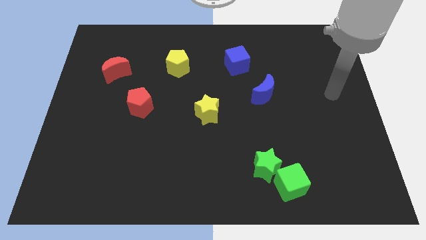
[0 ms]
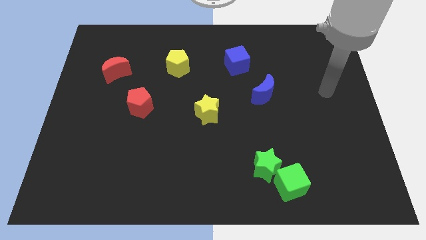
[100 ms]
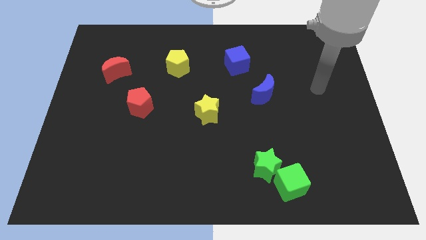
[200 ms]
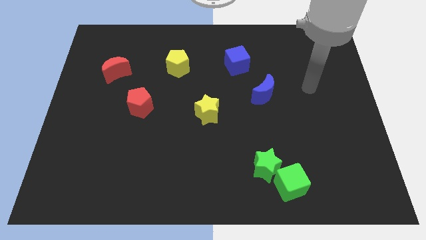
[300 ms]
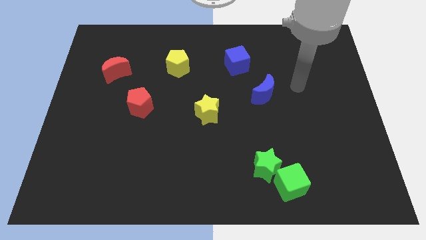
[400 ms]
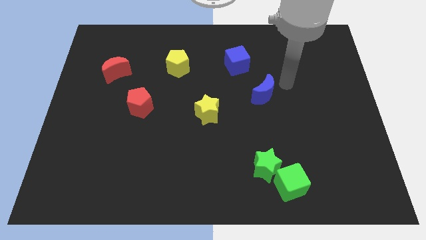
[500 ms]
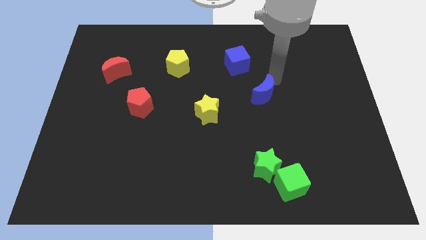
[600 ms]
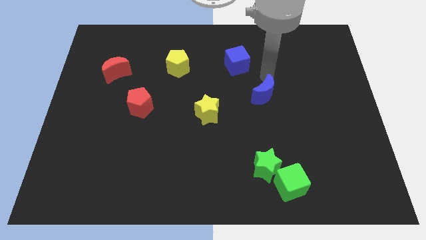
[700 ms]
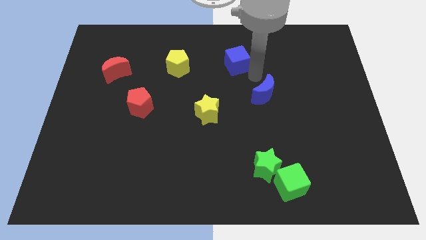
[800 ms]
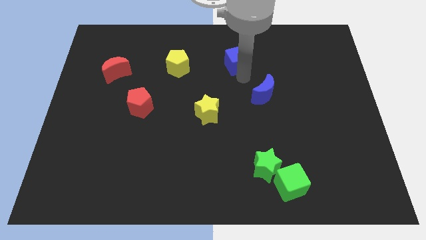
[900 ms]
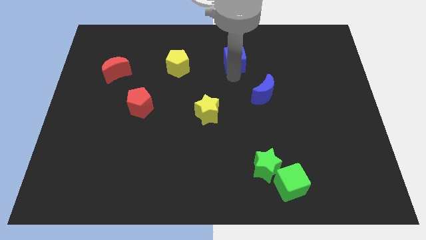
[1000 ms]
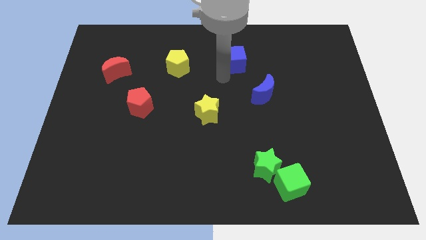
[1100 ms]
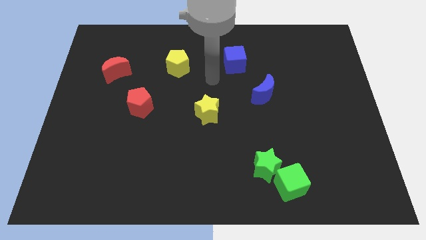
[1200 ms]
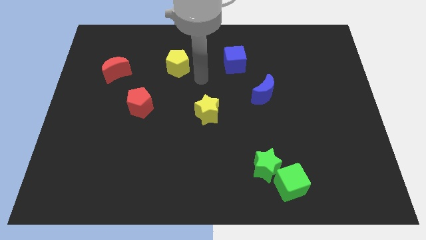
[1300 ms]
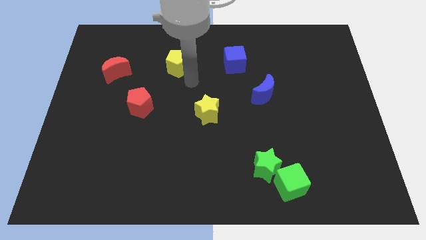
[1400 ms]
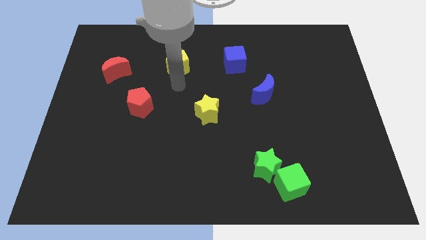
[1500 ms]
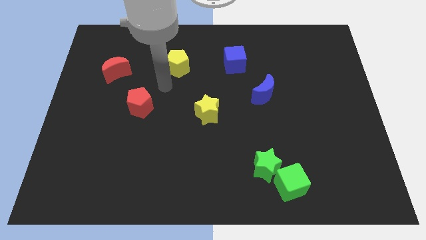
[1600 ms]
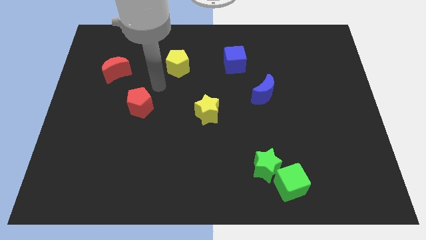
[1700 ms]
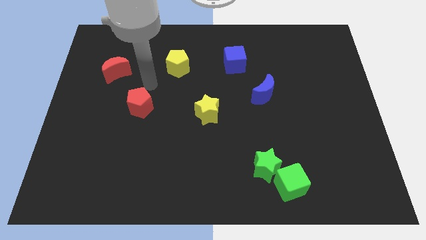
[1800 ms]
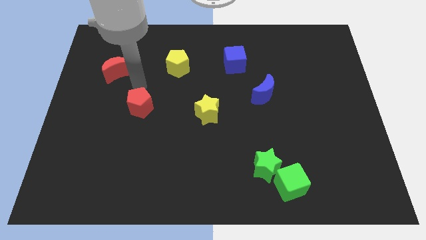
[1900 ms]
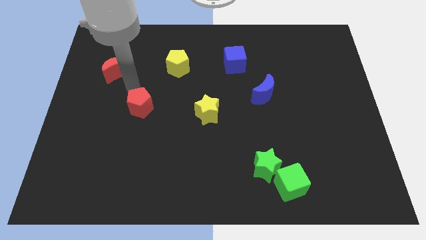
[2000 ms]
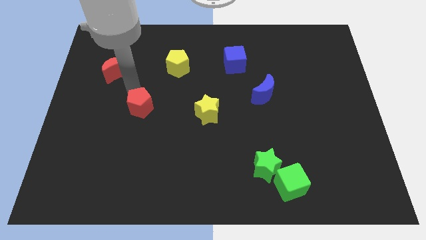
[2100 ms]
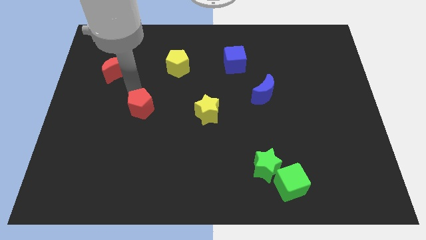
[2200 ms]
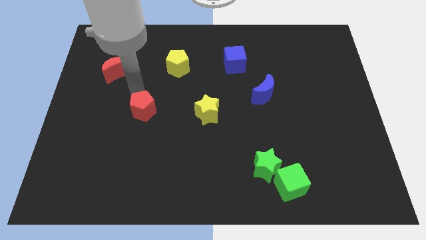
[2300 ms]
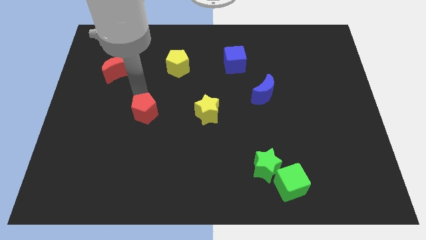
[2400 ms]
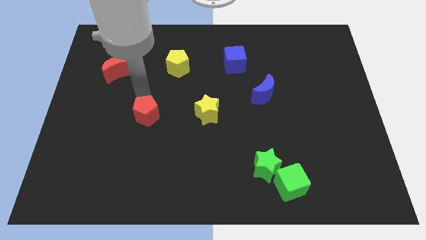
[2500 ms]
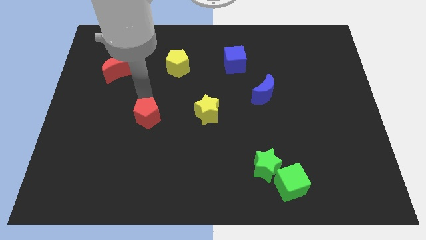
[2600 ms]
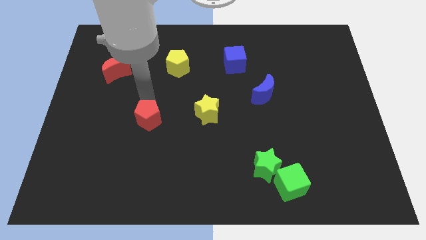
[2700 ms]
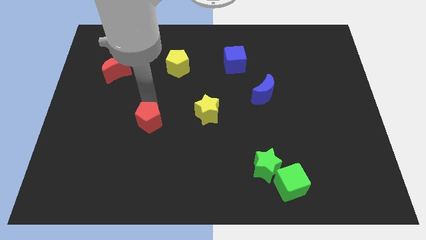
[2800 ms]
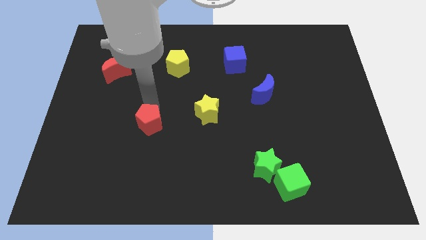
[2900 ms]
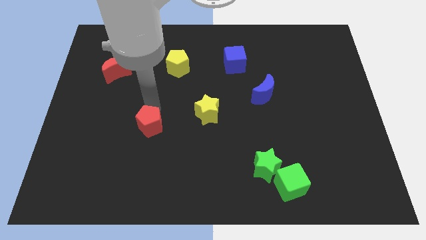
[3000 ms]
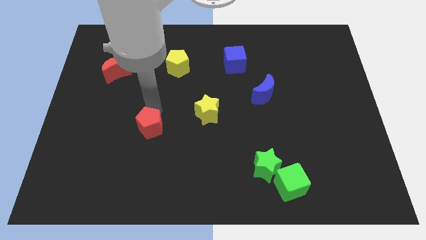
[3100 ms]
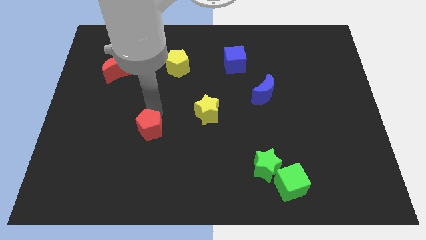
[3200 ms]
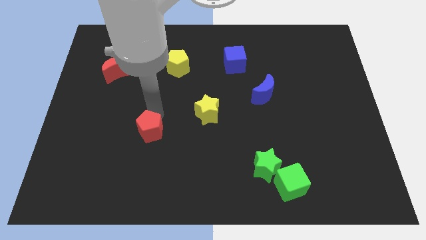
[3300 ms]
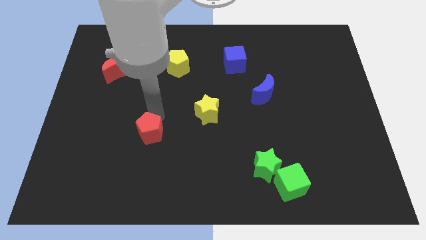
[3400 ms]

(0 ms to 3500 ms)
slide the red pentagon a bit downwards

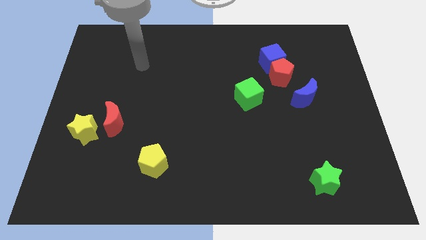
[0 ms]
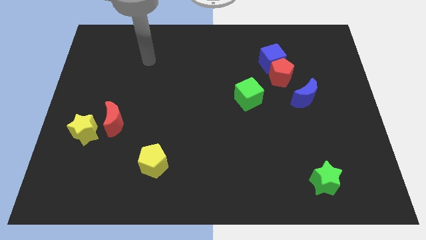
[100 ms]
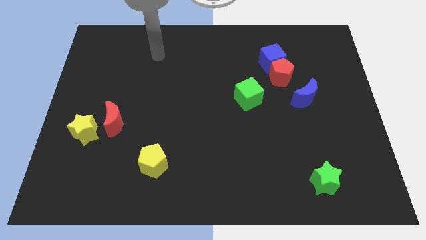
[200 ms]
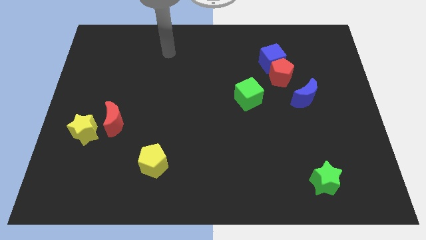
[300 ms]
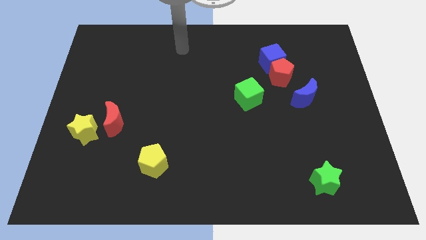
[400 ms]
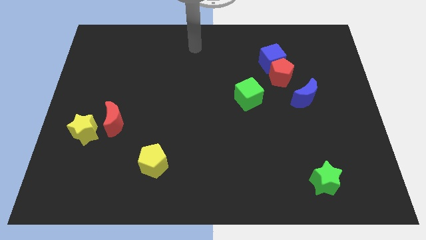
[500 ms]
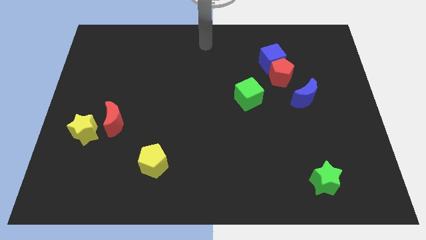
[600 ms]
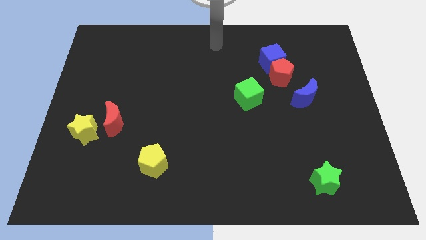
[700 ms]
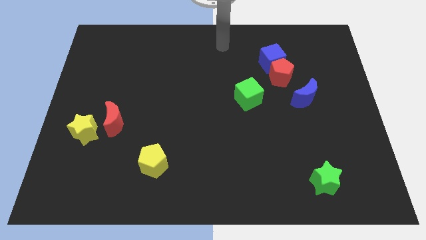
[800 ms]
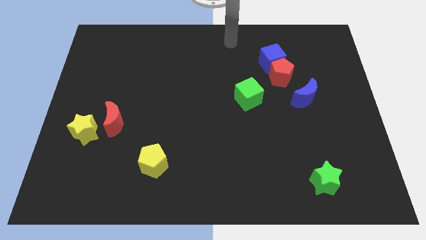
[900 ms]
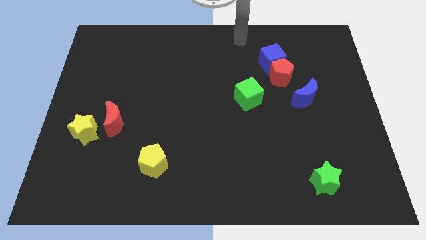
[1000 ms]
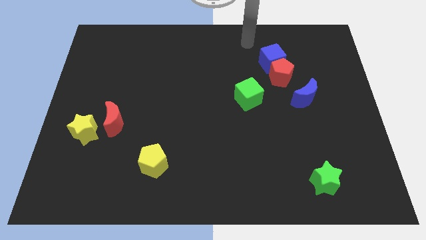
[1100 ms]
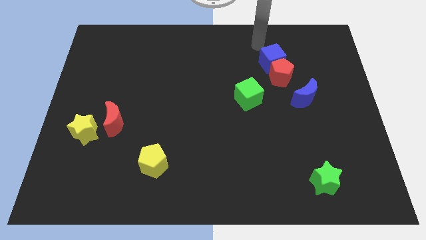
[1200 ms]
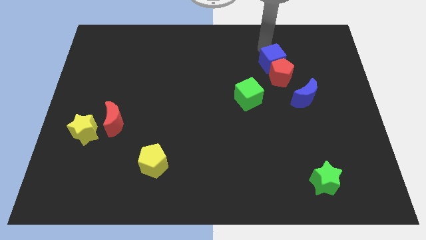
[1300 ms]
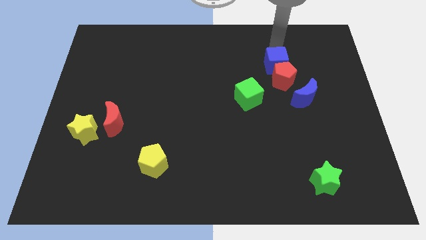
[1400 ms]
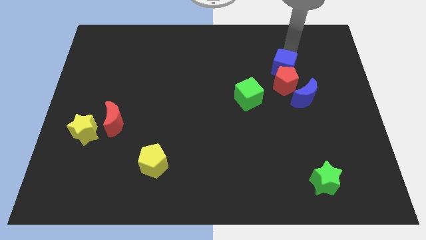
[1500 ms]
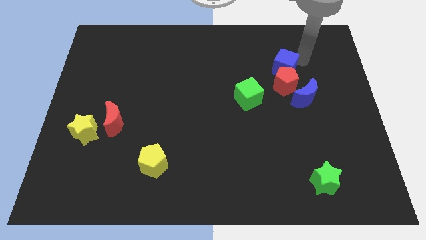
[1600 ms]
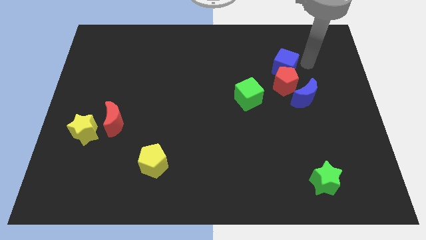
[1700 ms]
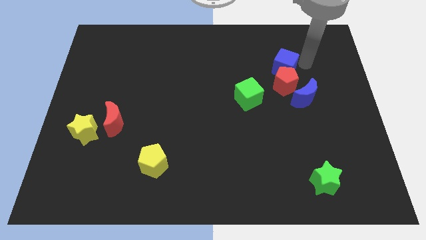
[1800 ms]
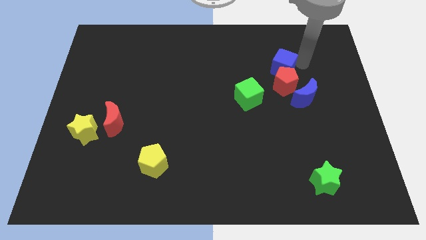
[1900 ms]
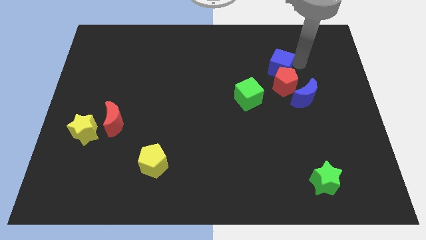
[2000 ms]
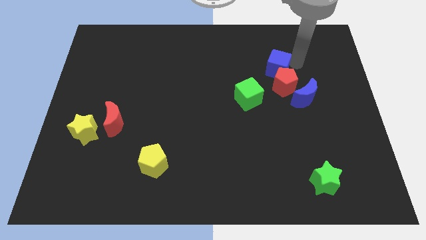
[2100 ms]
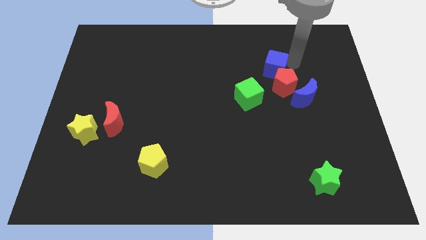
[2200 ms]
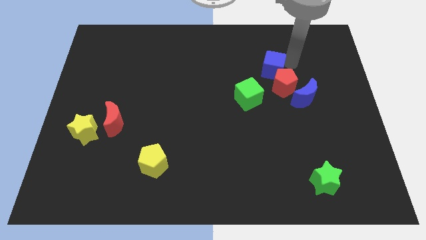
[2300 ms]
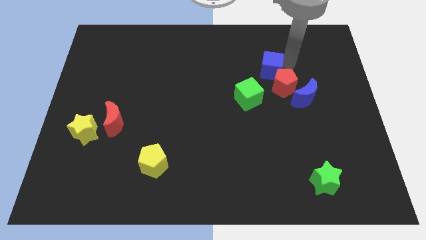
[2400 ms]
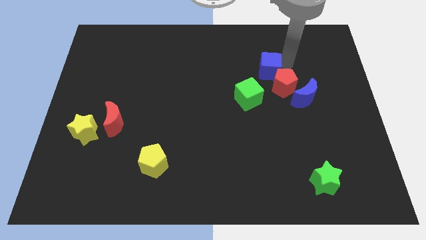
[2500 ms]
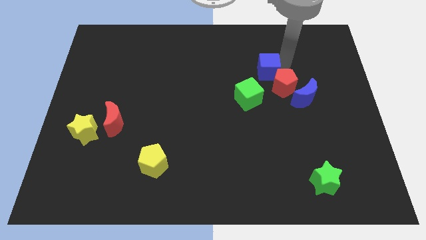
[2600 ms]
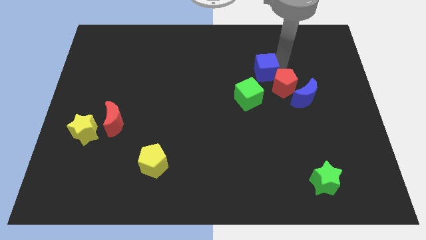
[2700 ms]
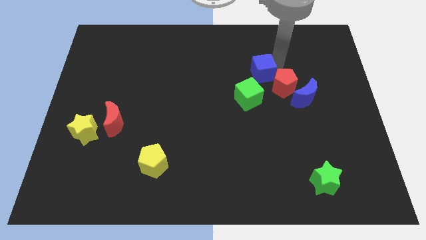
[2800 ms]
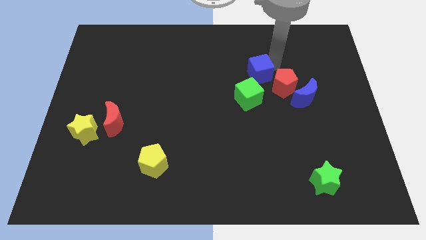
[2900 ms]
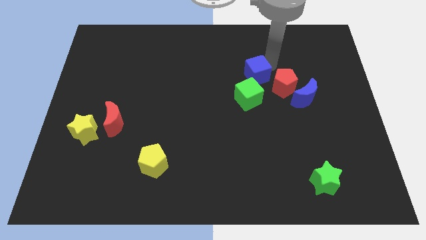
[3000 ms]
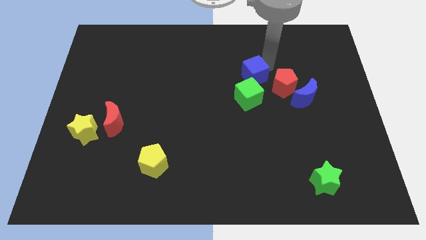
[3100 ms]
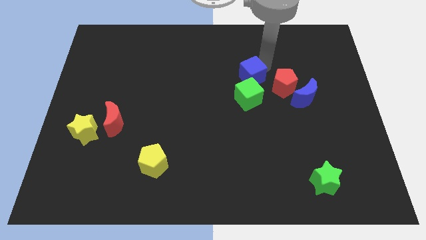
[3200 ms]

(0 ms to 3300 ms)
push the blue cube down and to the left slightly

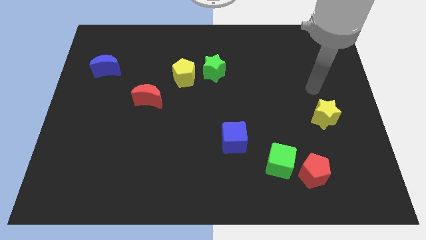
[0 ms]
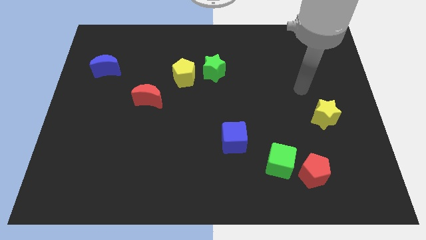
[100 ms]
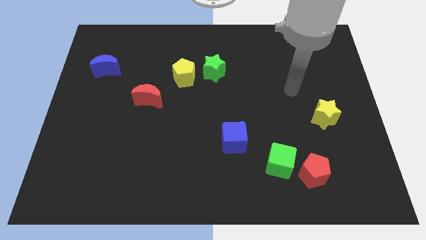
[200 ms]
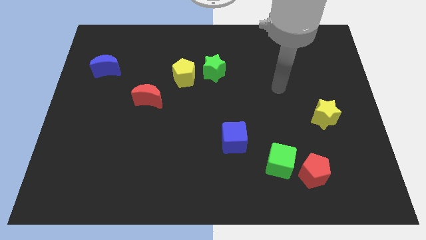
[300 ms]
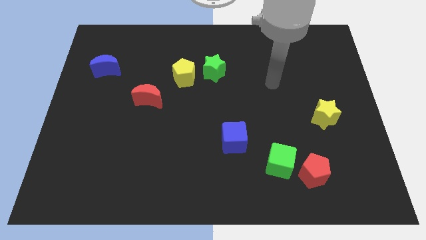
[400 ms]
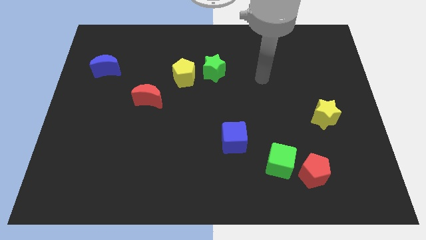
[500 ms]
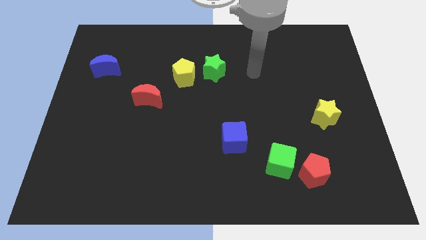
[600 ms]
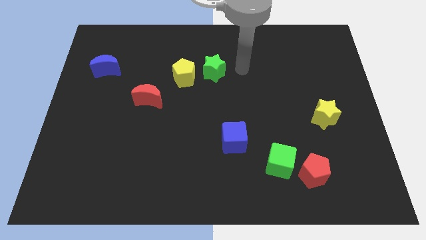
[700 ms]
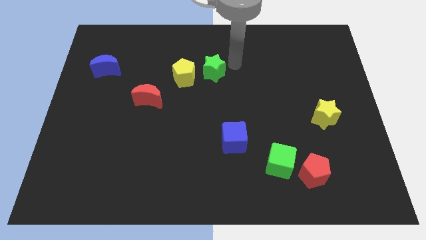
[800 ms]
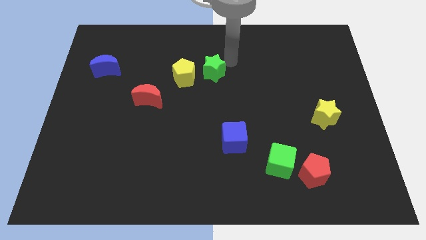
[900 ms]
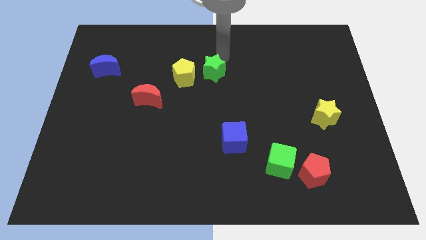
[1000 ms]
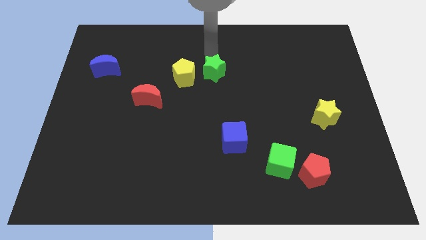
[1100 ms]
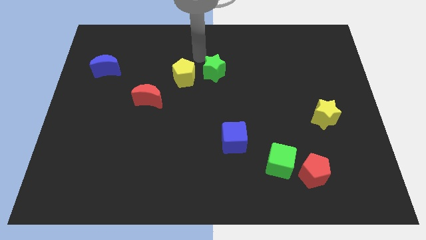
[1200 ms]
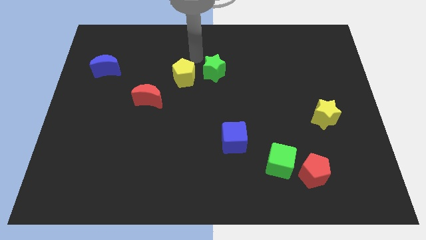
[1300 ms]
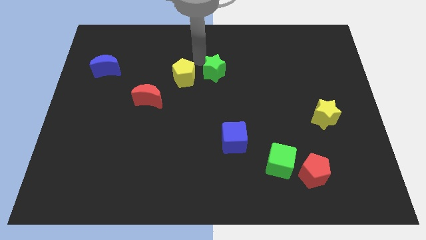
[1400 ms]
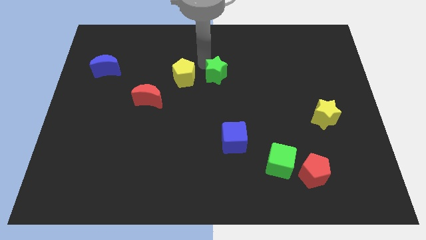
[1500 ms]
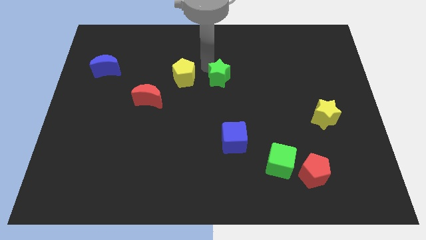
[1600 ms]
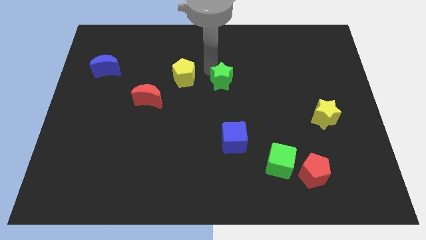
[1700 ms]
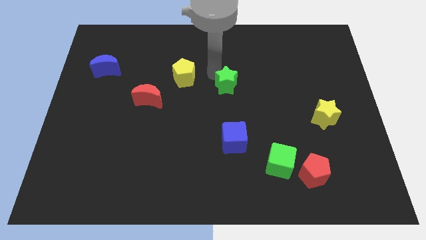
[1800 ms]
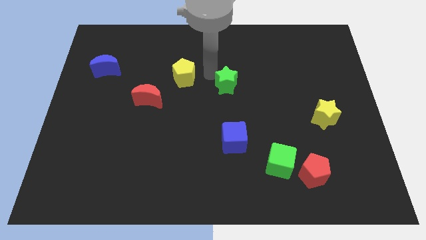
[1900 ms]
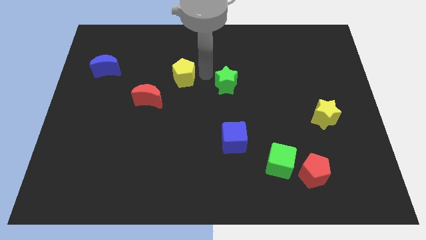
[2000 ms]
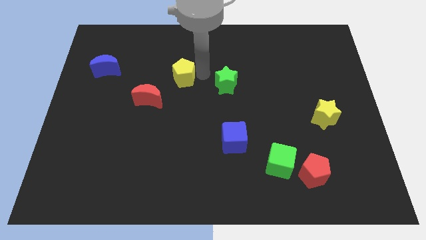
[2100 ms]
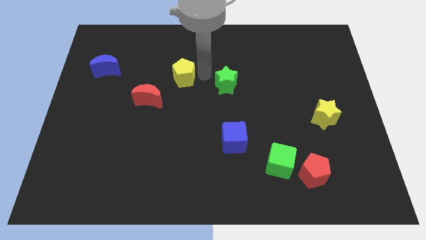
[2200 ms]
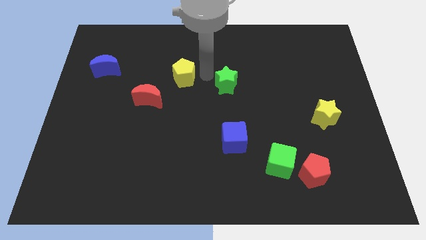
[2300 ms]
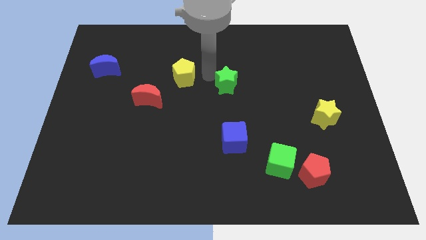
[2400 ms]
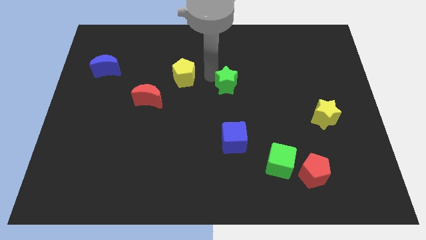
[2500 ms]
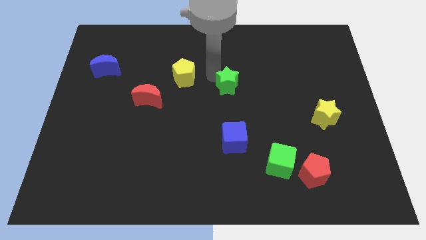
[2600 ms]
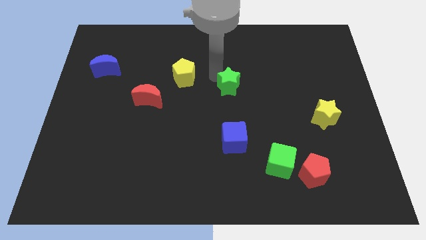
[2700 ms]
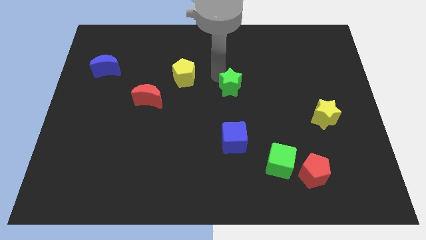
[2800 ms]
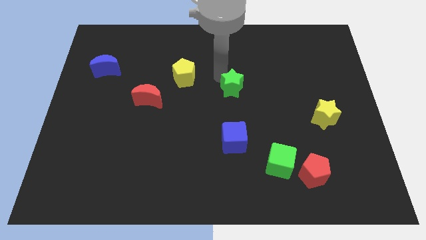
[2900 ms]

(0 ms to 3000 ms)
slide the green star a bit down and then right
